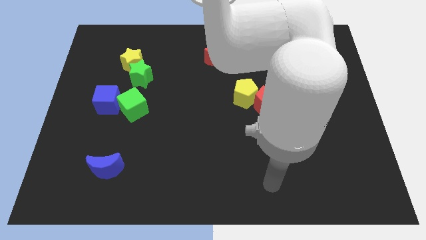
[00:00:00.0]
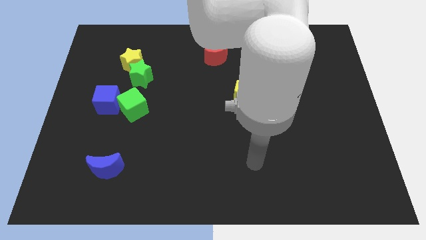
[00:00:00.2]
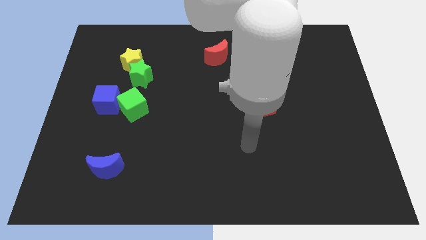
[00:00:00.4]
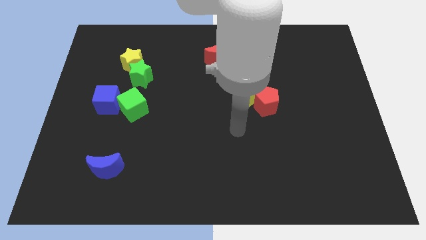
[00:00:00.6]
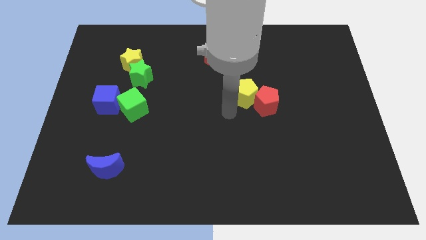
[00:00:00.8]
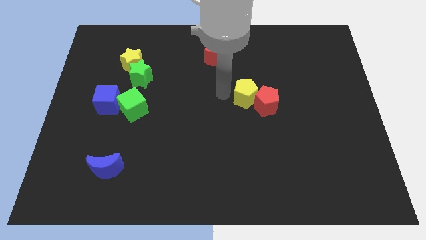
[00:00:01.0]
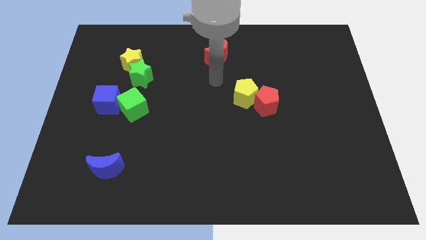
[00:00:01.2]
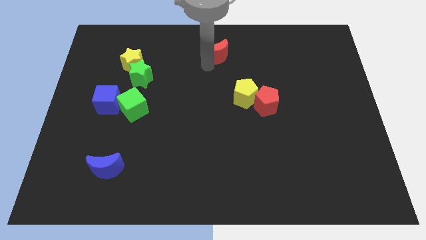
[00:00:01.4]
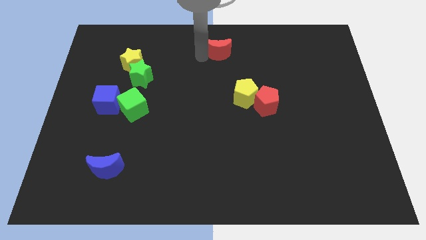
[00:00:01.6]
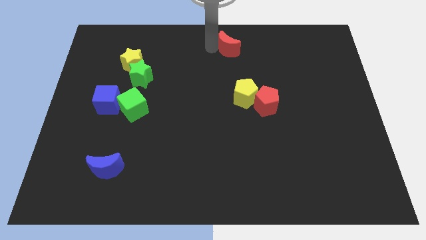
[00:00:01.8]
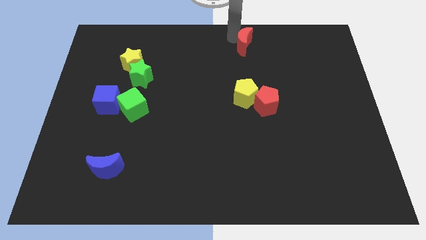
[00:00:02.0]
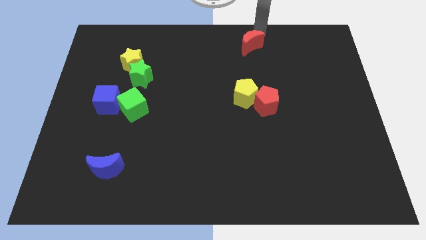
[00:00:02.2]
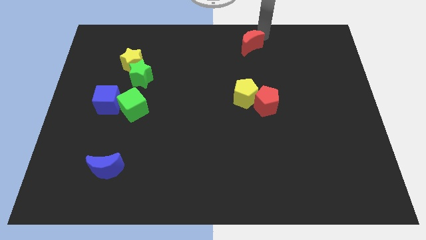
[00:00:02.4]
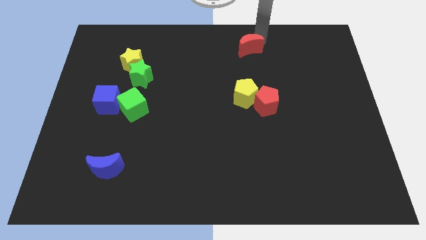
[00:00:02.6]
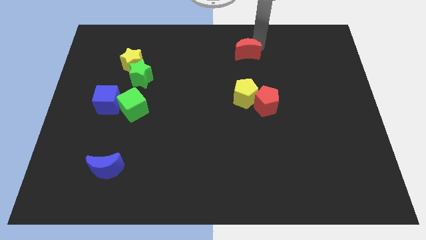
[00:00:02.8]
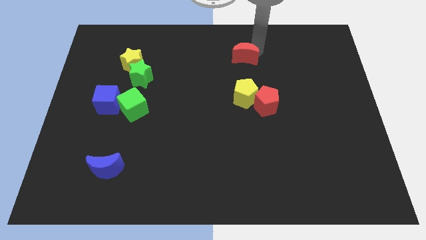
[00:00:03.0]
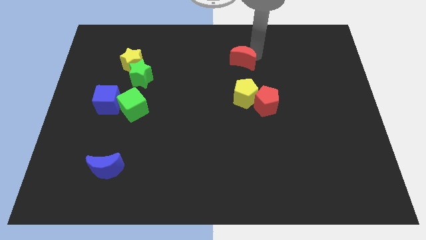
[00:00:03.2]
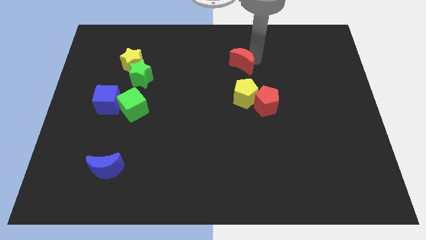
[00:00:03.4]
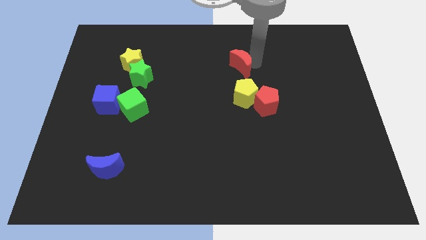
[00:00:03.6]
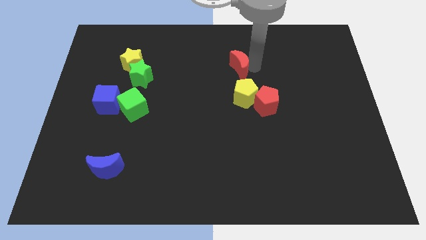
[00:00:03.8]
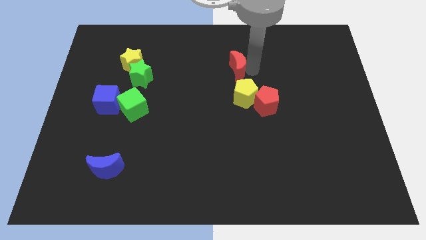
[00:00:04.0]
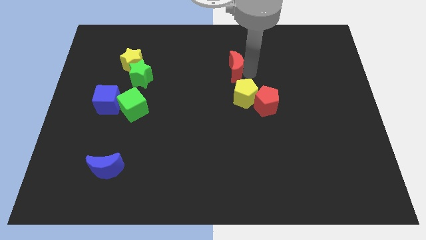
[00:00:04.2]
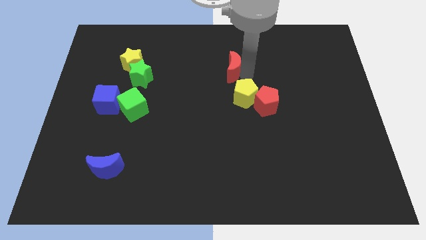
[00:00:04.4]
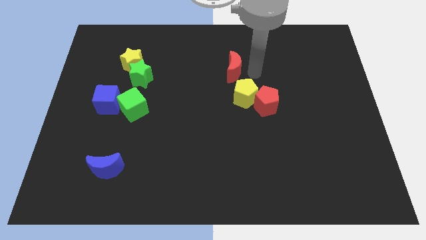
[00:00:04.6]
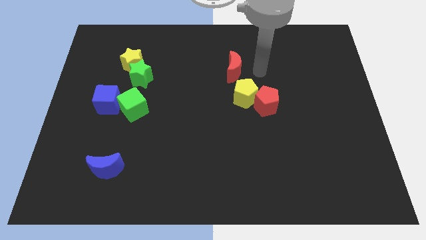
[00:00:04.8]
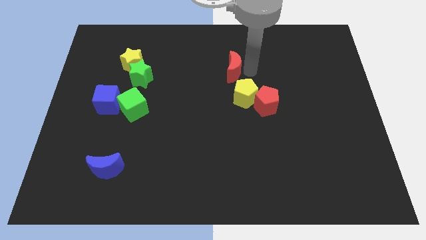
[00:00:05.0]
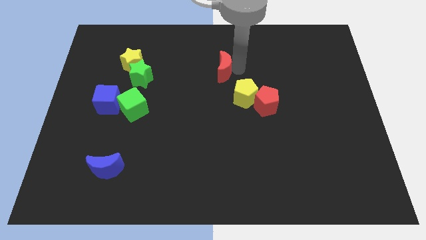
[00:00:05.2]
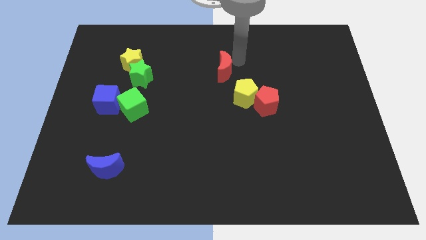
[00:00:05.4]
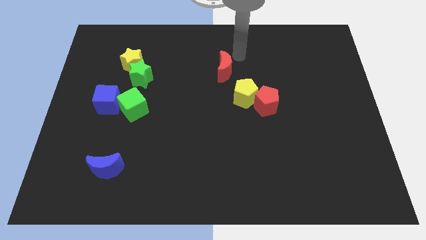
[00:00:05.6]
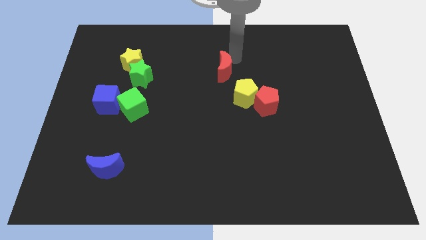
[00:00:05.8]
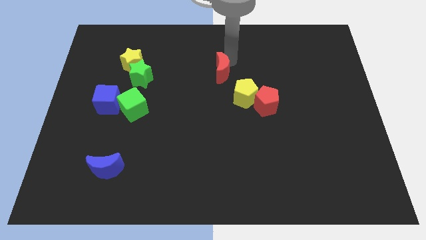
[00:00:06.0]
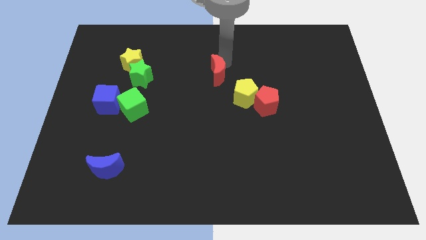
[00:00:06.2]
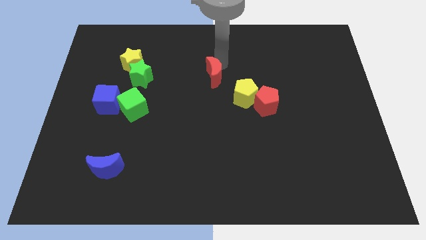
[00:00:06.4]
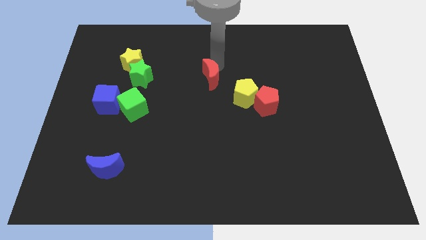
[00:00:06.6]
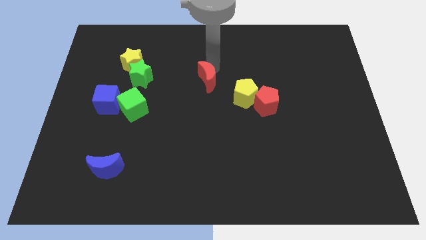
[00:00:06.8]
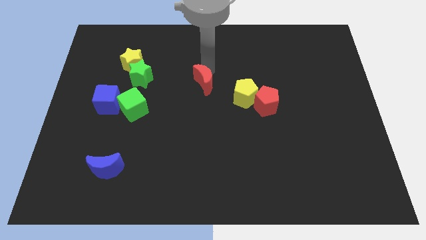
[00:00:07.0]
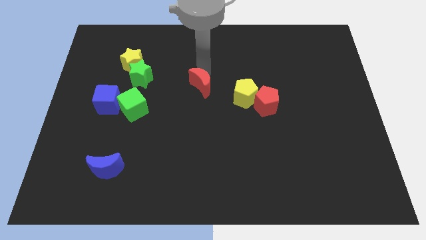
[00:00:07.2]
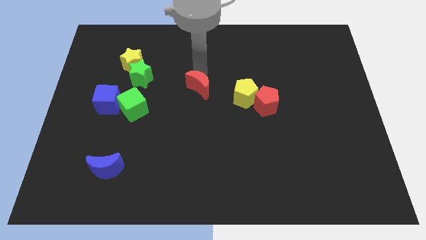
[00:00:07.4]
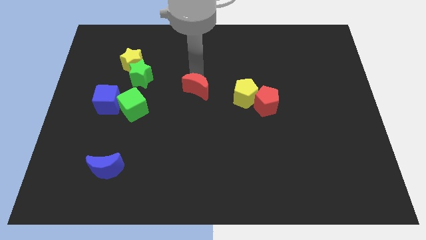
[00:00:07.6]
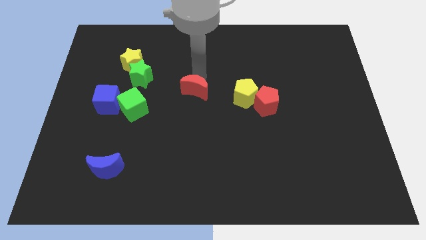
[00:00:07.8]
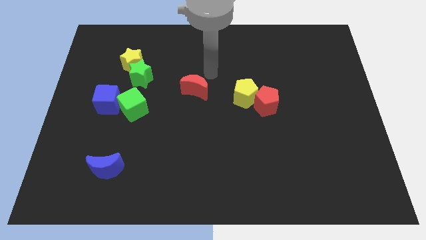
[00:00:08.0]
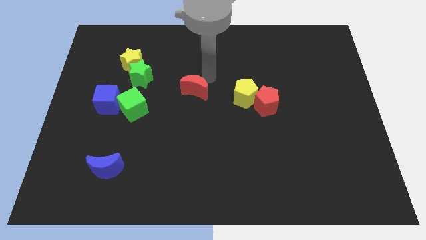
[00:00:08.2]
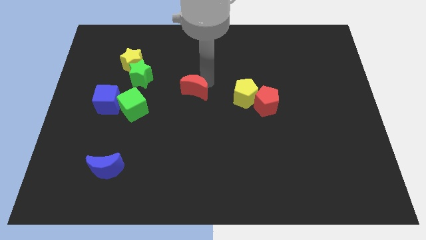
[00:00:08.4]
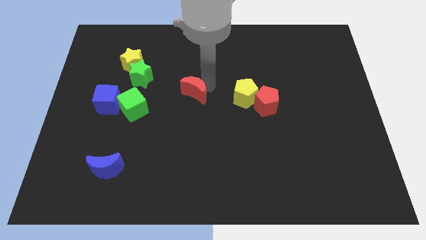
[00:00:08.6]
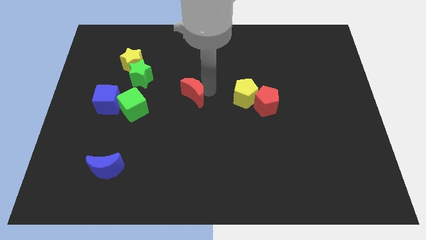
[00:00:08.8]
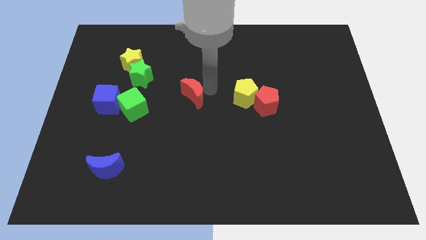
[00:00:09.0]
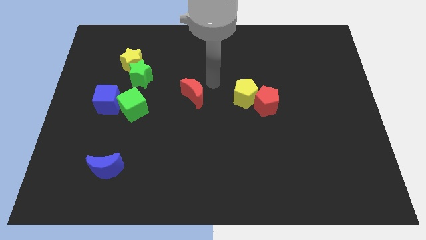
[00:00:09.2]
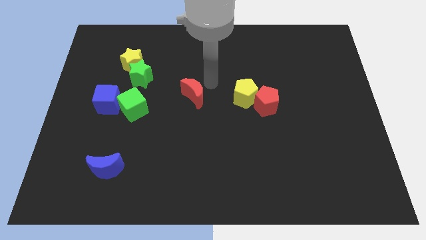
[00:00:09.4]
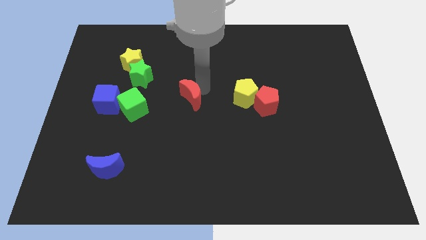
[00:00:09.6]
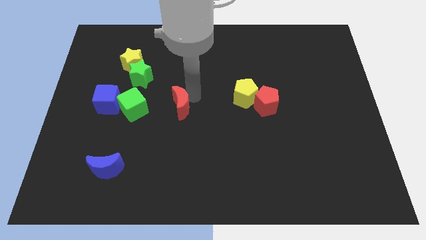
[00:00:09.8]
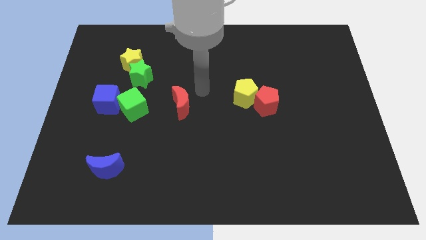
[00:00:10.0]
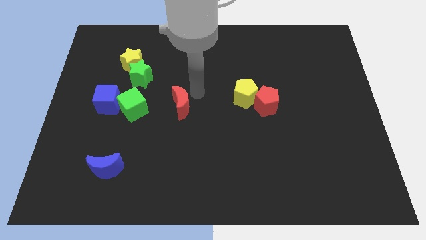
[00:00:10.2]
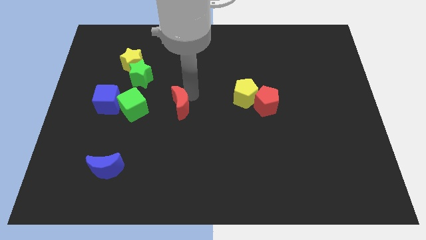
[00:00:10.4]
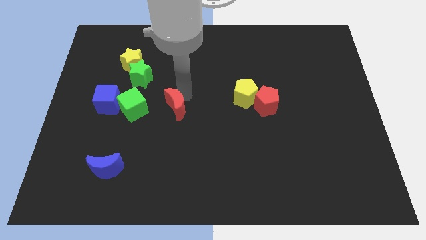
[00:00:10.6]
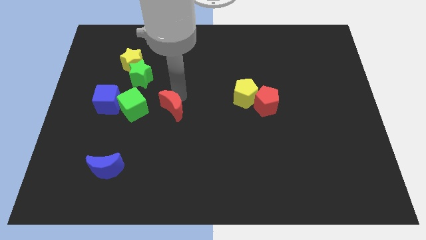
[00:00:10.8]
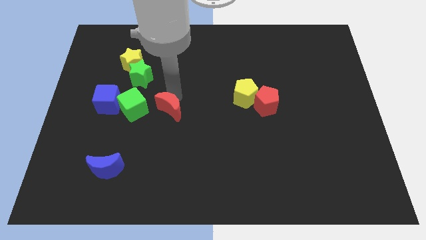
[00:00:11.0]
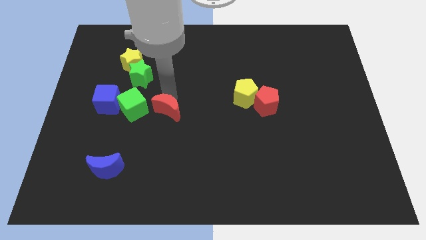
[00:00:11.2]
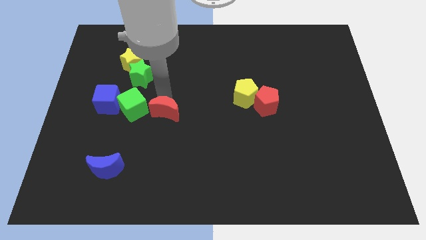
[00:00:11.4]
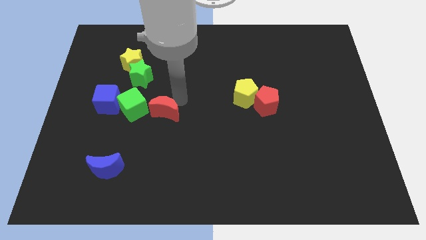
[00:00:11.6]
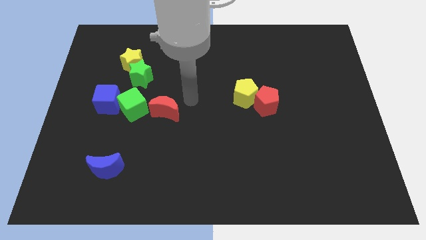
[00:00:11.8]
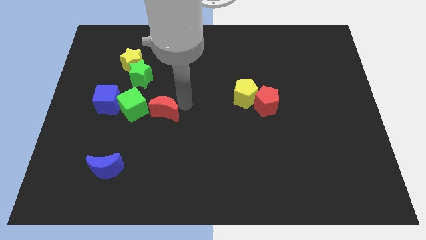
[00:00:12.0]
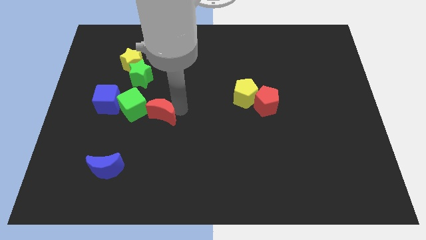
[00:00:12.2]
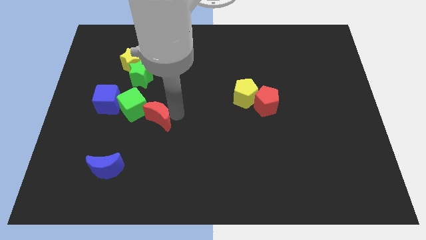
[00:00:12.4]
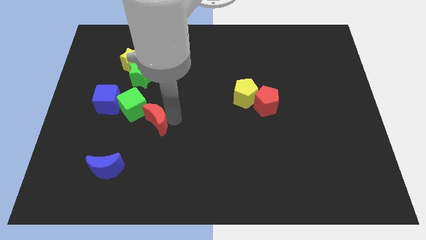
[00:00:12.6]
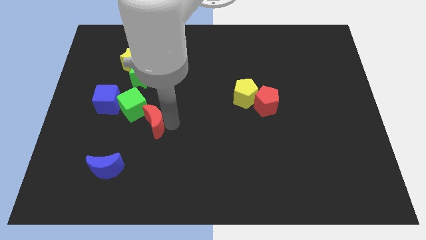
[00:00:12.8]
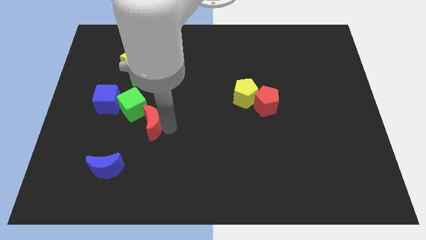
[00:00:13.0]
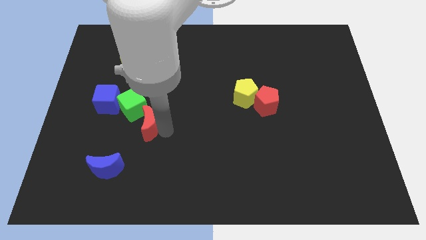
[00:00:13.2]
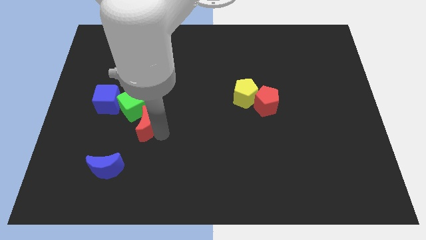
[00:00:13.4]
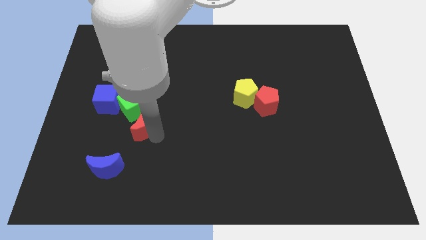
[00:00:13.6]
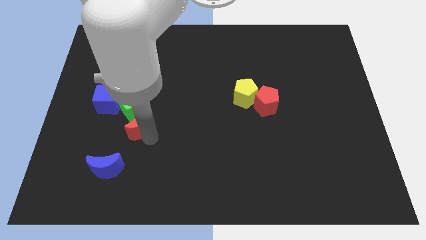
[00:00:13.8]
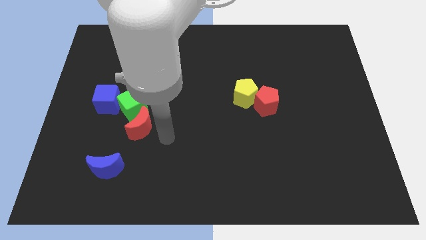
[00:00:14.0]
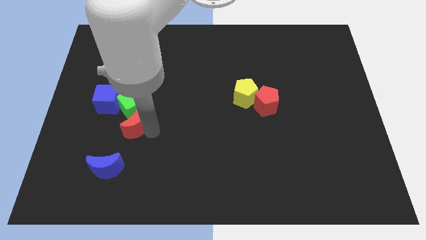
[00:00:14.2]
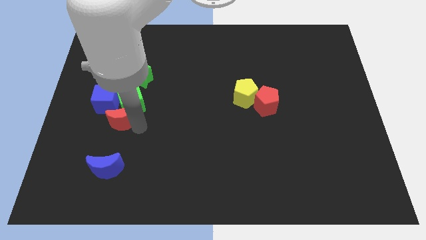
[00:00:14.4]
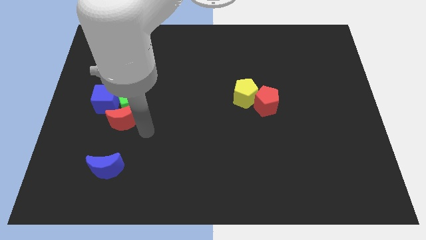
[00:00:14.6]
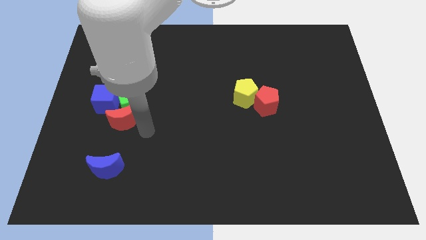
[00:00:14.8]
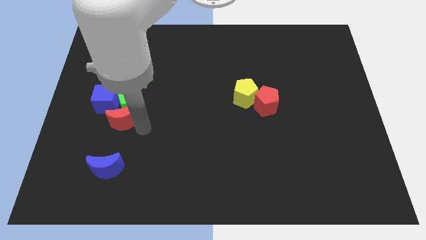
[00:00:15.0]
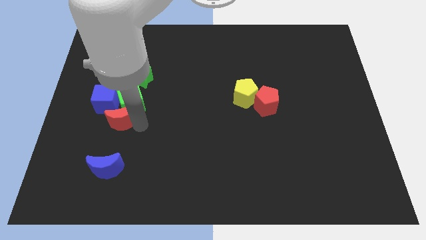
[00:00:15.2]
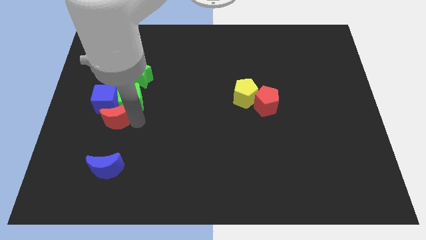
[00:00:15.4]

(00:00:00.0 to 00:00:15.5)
move the red moon close to the blue cube
